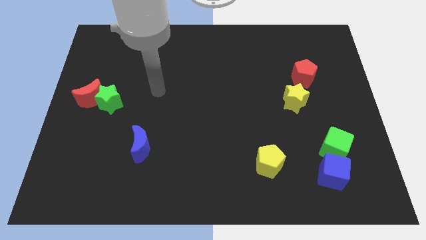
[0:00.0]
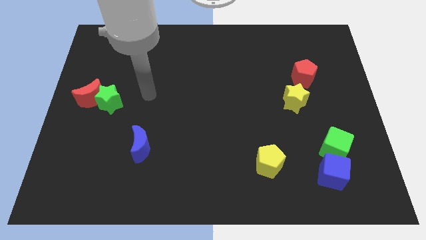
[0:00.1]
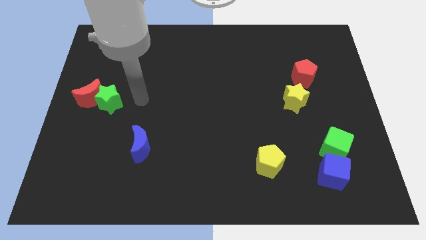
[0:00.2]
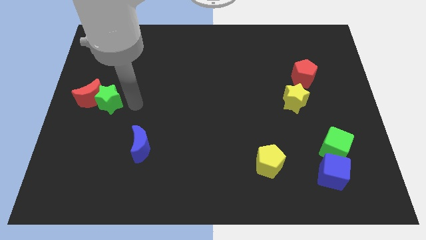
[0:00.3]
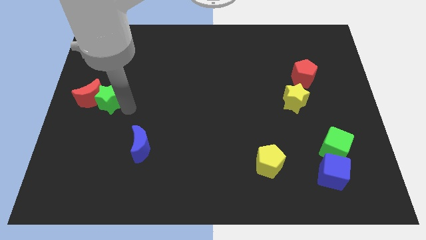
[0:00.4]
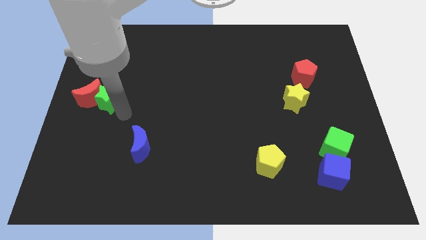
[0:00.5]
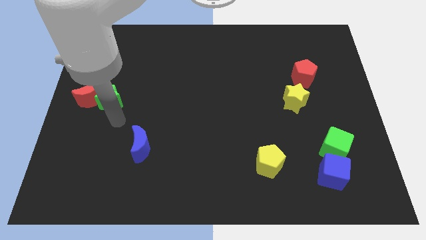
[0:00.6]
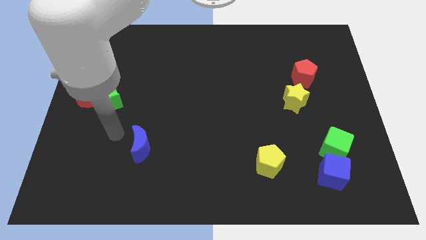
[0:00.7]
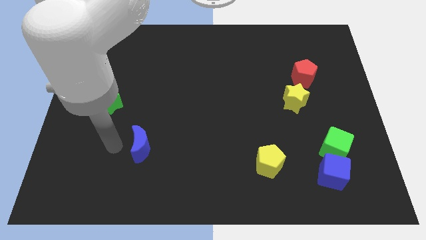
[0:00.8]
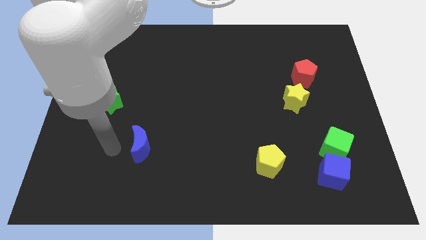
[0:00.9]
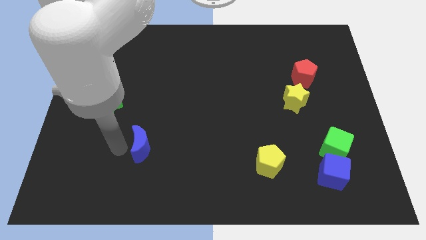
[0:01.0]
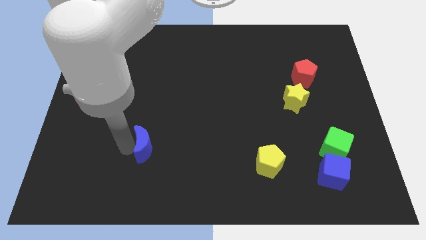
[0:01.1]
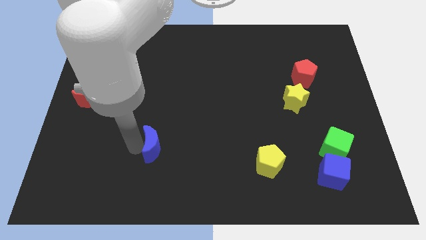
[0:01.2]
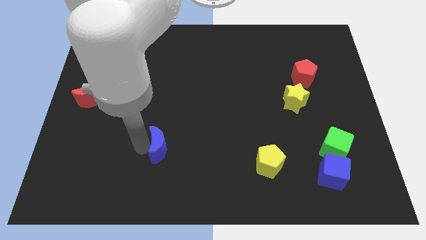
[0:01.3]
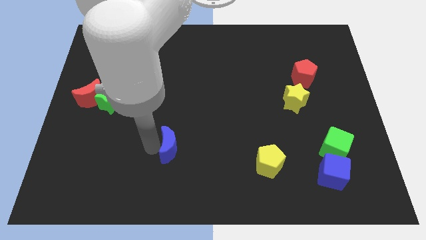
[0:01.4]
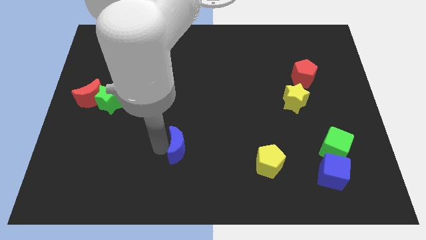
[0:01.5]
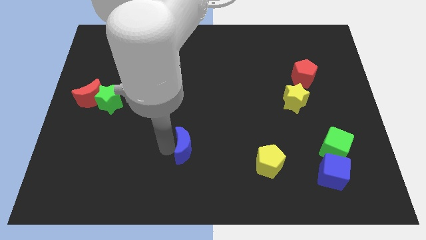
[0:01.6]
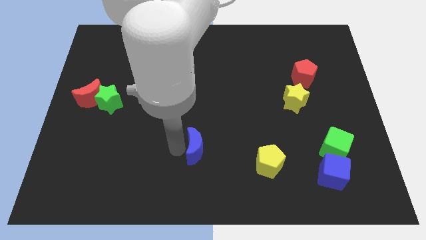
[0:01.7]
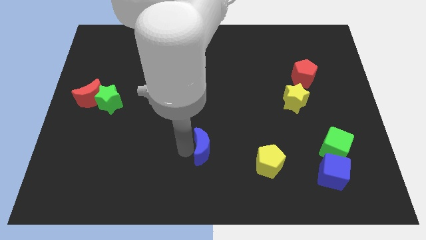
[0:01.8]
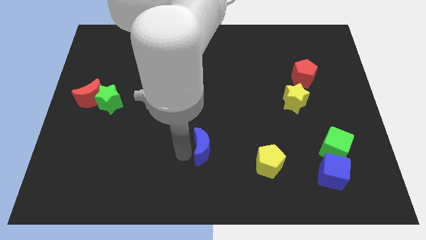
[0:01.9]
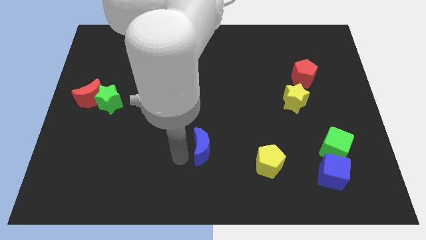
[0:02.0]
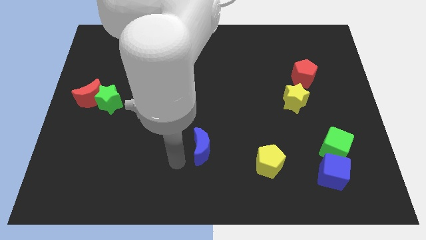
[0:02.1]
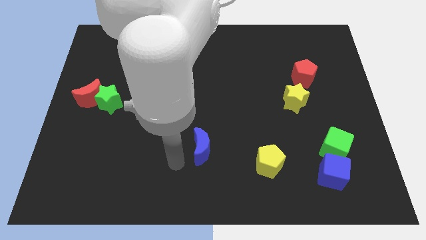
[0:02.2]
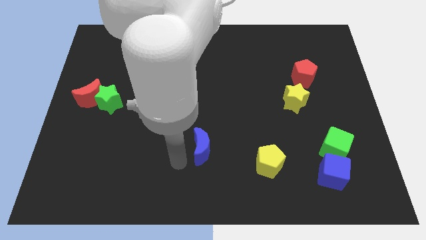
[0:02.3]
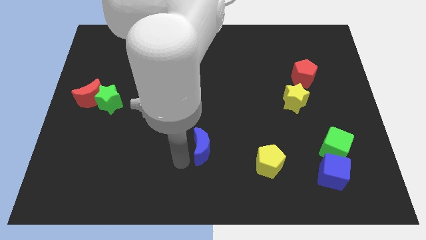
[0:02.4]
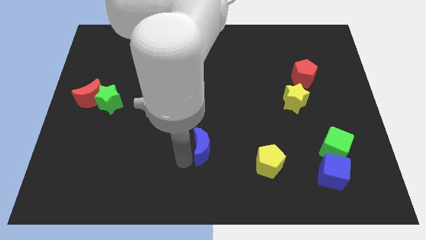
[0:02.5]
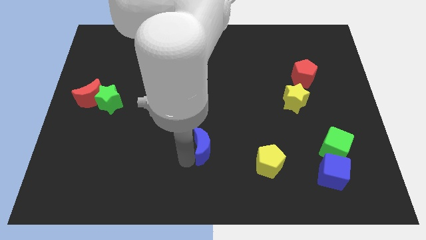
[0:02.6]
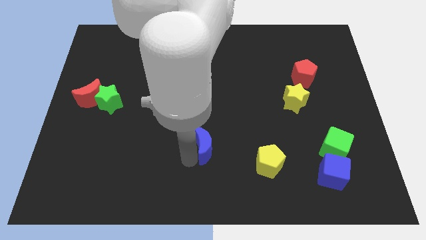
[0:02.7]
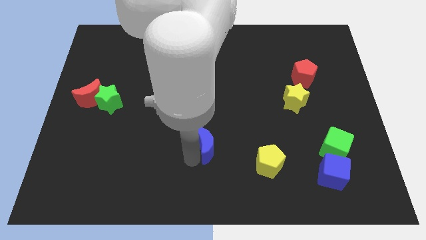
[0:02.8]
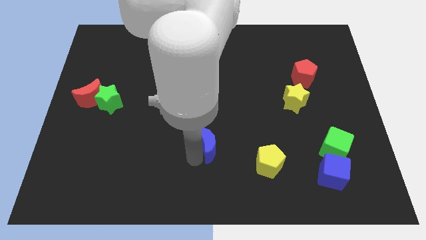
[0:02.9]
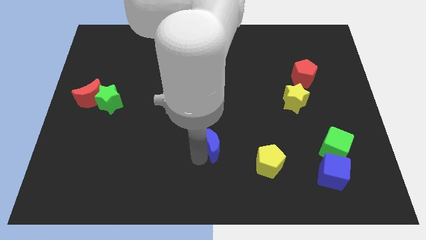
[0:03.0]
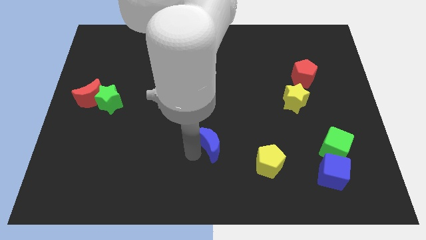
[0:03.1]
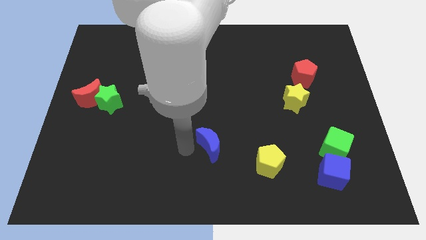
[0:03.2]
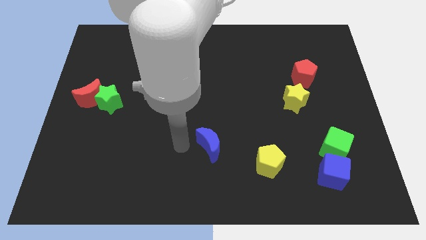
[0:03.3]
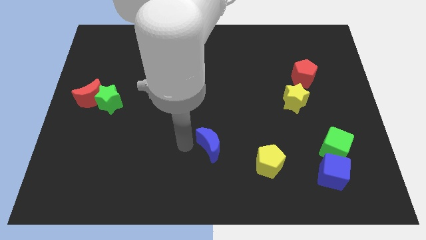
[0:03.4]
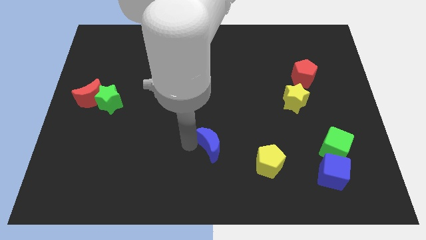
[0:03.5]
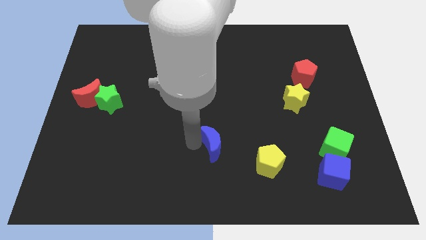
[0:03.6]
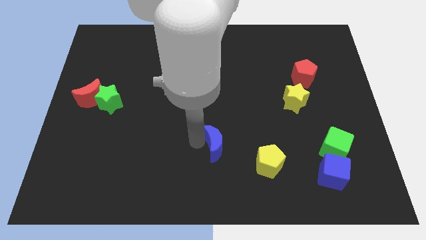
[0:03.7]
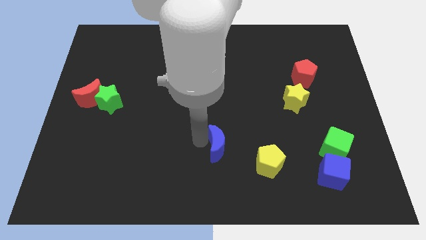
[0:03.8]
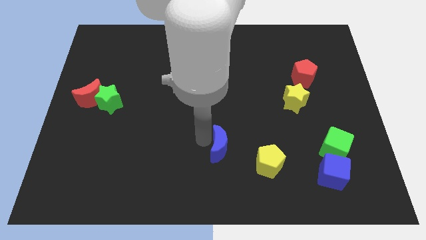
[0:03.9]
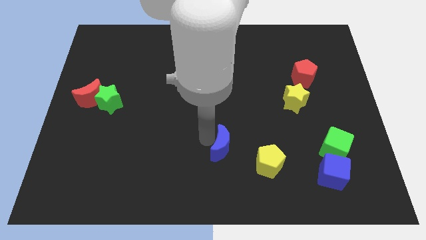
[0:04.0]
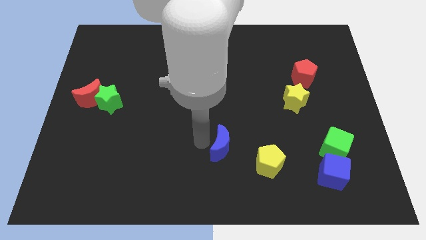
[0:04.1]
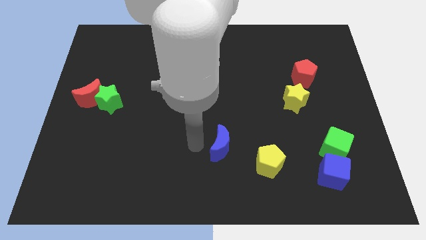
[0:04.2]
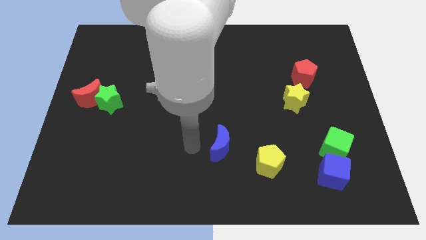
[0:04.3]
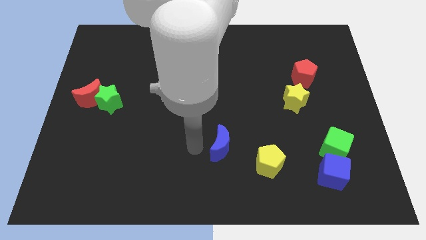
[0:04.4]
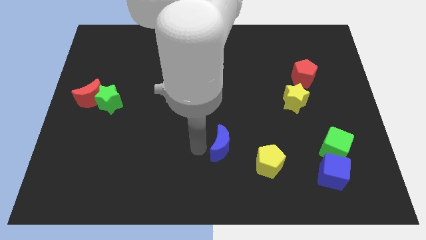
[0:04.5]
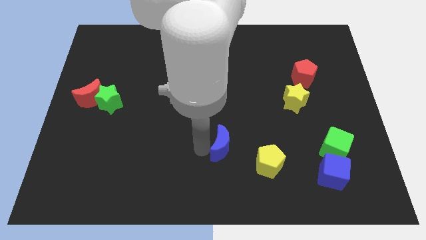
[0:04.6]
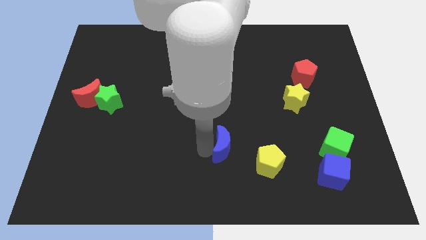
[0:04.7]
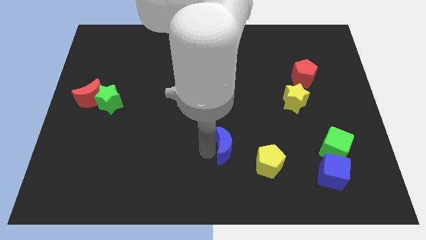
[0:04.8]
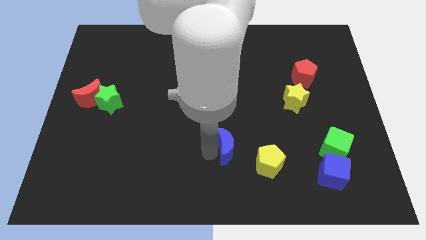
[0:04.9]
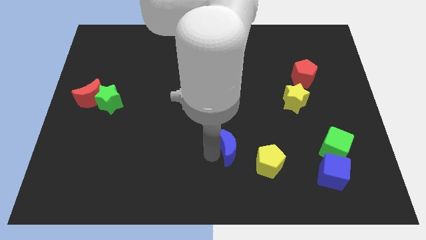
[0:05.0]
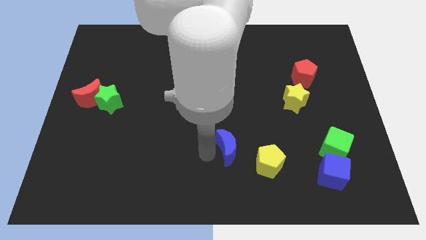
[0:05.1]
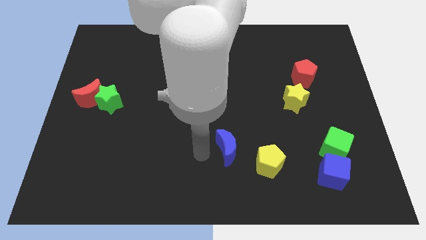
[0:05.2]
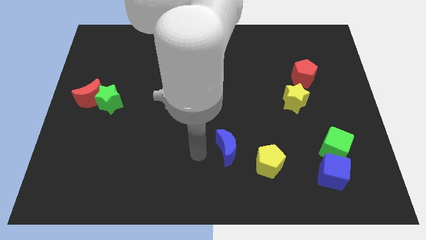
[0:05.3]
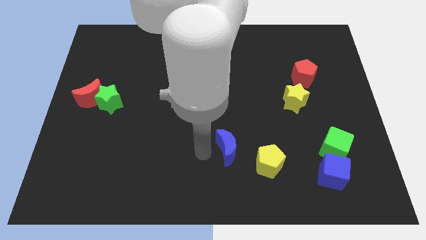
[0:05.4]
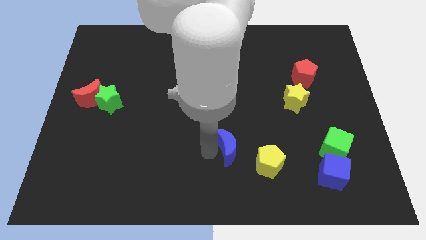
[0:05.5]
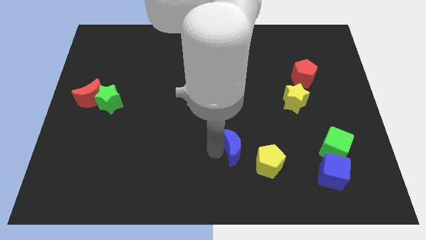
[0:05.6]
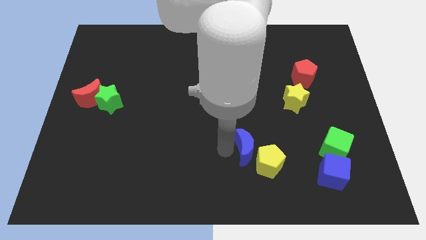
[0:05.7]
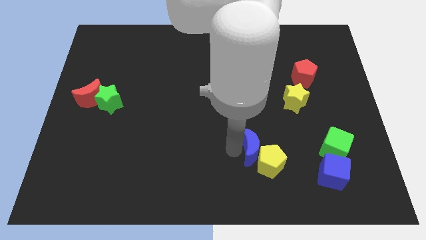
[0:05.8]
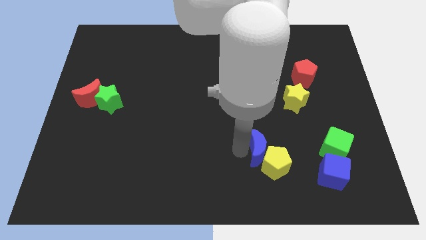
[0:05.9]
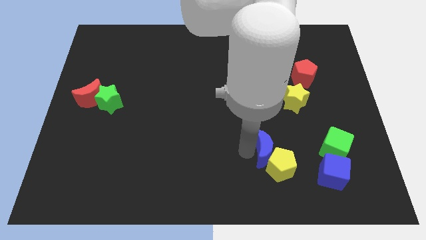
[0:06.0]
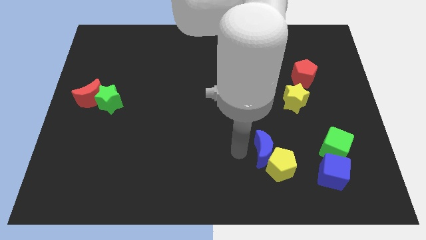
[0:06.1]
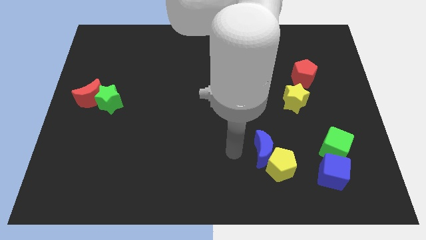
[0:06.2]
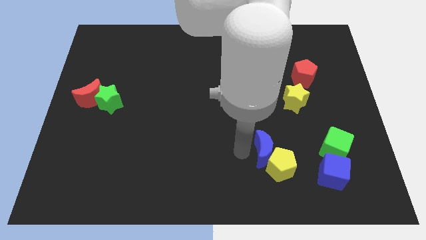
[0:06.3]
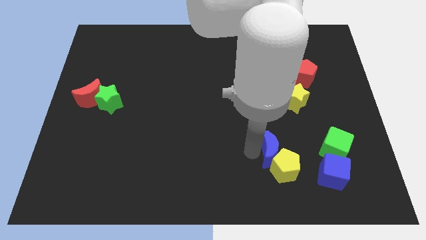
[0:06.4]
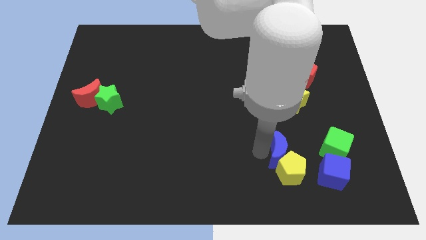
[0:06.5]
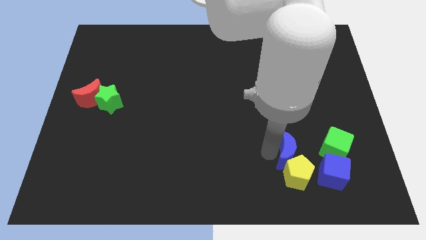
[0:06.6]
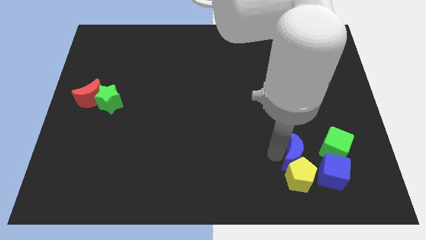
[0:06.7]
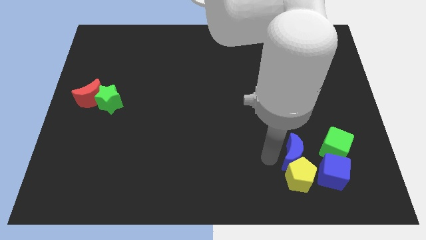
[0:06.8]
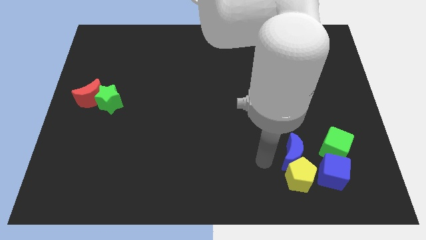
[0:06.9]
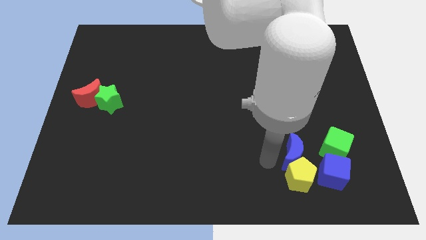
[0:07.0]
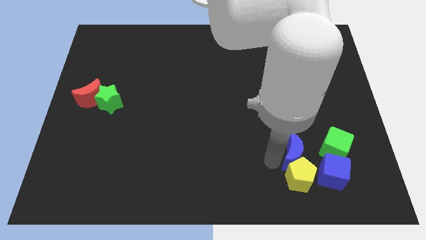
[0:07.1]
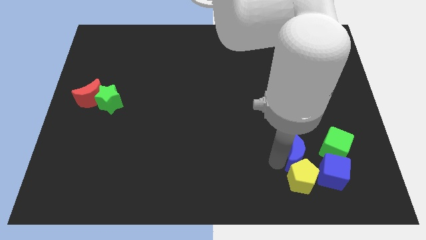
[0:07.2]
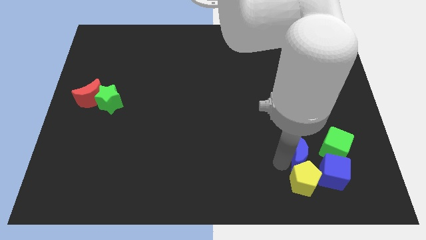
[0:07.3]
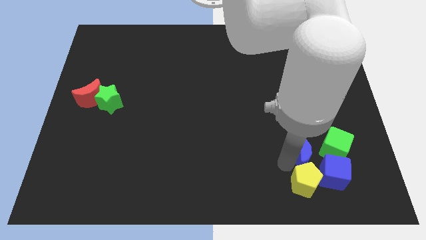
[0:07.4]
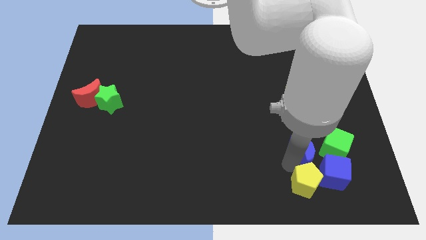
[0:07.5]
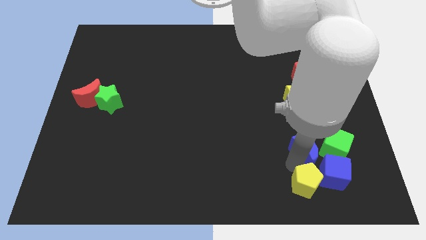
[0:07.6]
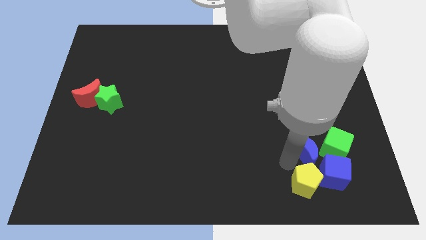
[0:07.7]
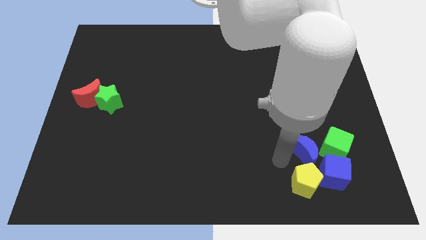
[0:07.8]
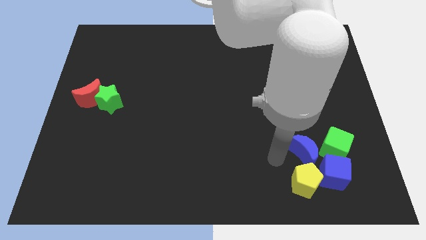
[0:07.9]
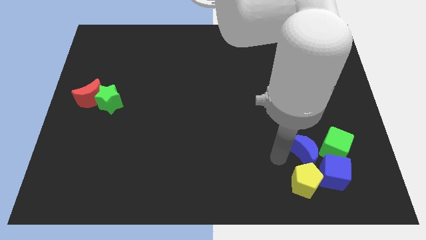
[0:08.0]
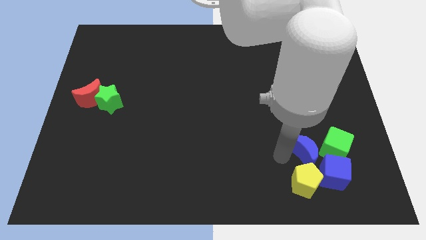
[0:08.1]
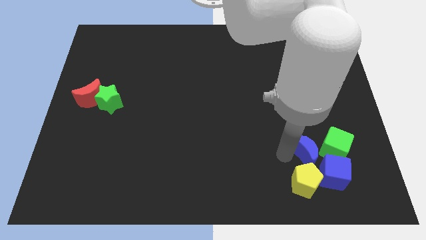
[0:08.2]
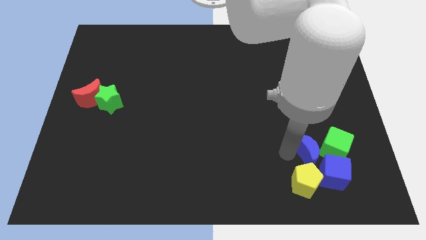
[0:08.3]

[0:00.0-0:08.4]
move the blue moon next to the green cube

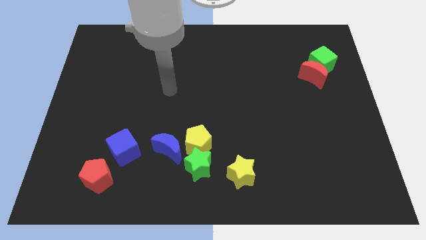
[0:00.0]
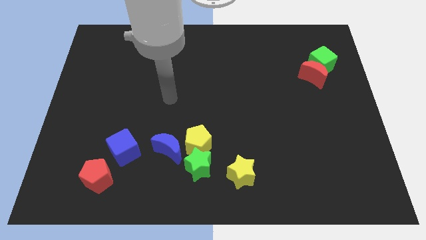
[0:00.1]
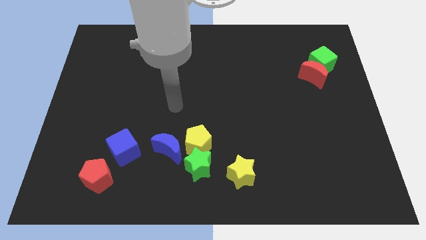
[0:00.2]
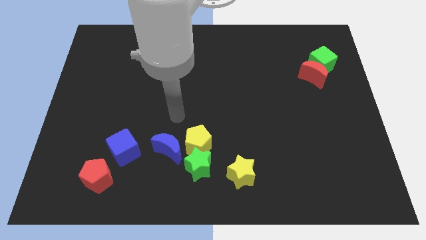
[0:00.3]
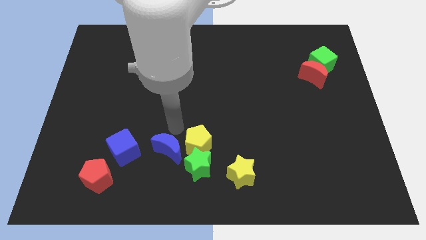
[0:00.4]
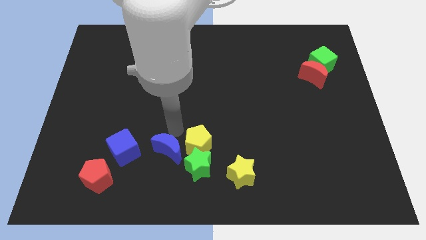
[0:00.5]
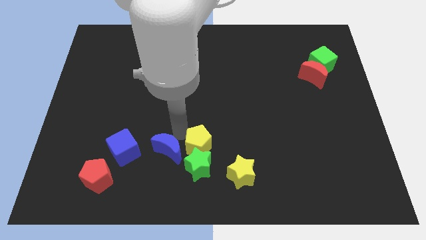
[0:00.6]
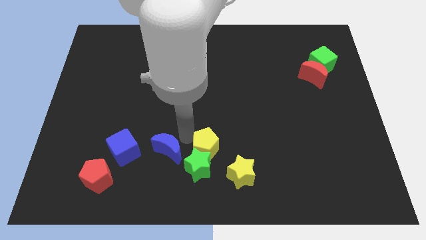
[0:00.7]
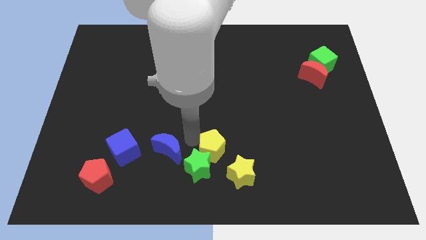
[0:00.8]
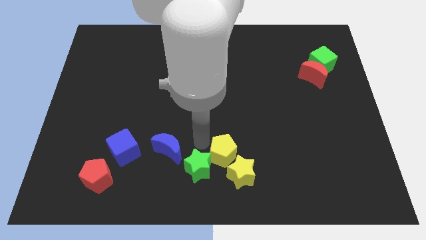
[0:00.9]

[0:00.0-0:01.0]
push the yellow pentagon towards the yellow star
